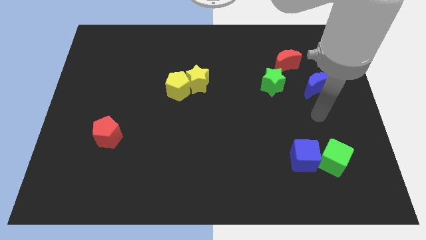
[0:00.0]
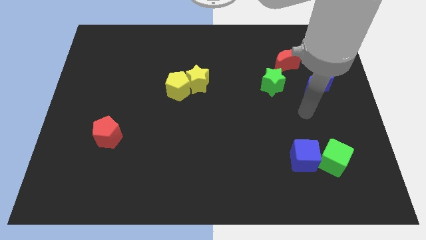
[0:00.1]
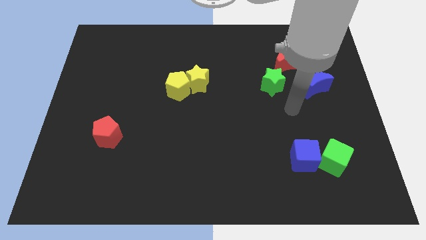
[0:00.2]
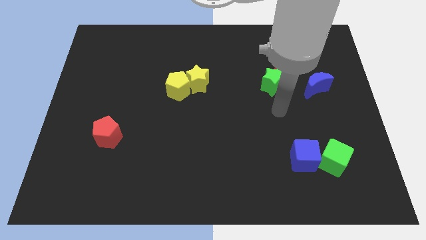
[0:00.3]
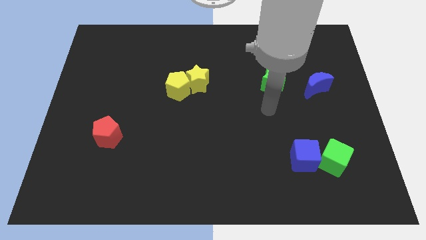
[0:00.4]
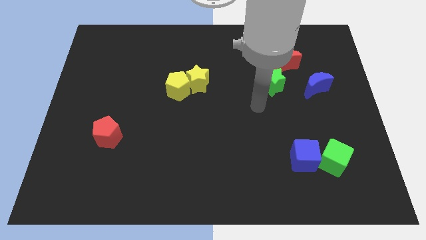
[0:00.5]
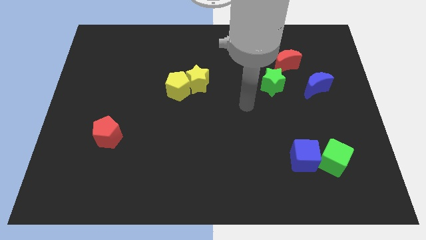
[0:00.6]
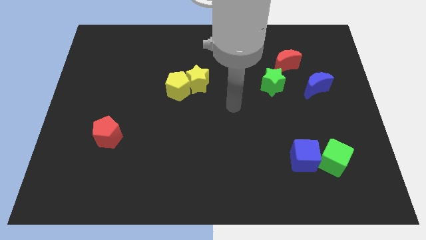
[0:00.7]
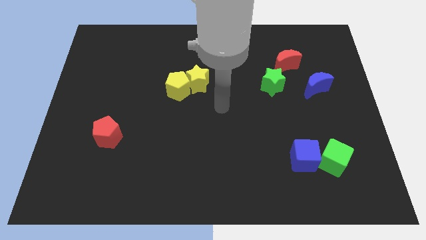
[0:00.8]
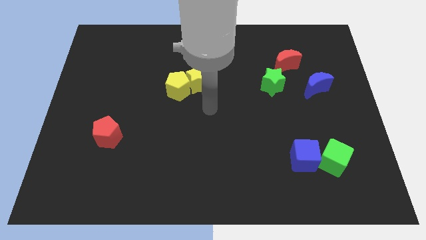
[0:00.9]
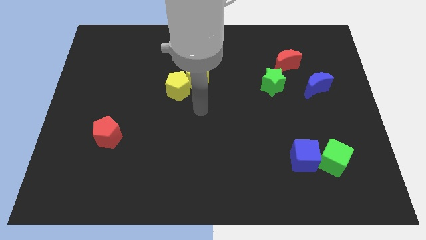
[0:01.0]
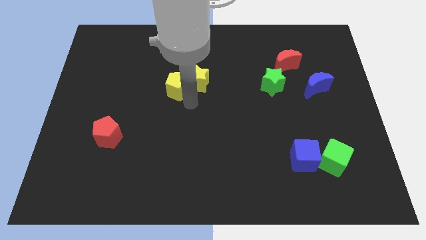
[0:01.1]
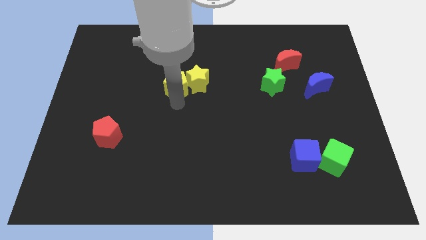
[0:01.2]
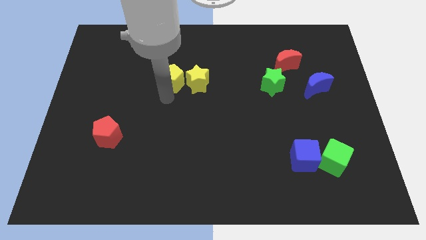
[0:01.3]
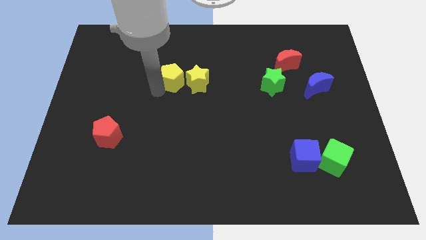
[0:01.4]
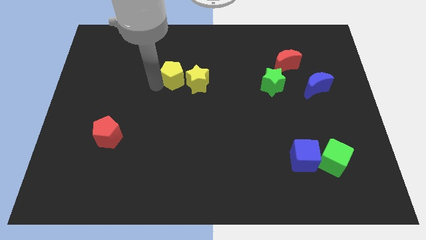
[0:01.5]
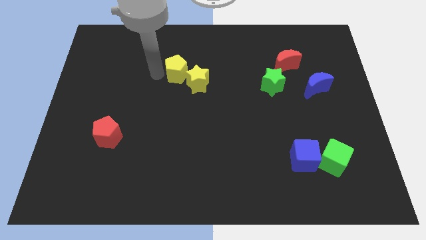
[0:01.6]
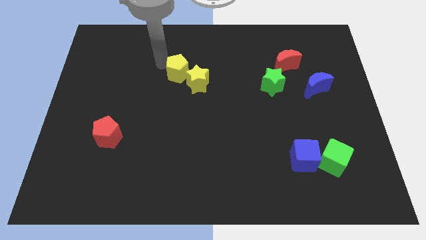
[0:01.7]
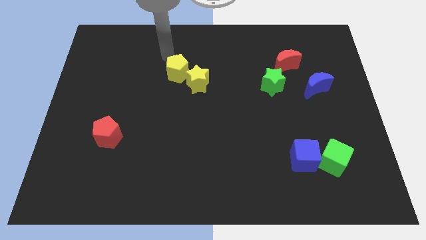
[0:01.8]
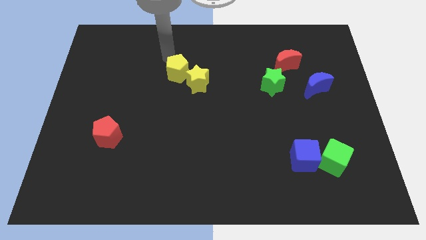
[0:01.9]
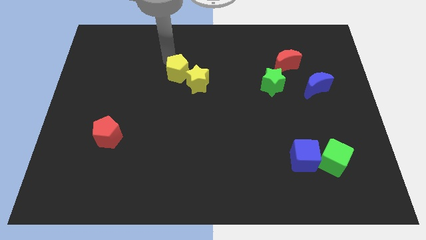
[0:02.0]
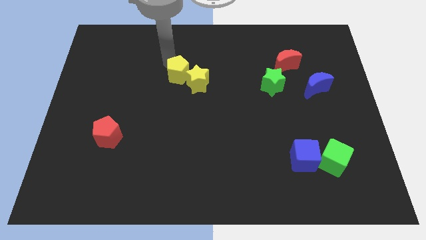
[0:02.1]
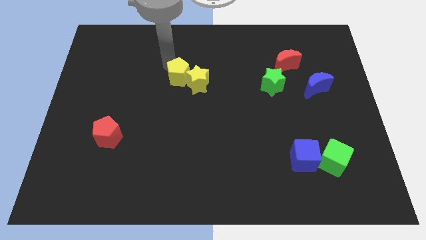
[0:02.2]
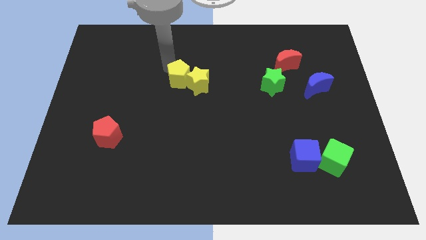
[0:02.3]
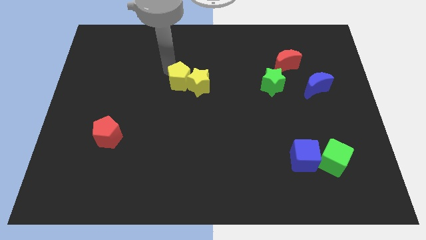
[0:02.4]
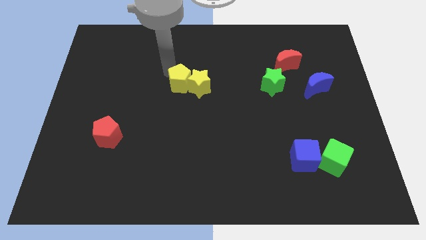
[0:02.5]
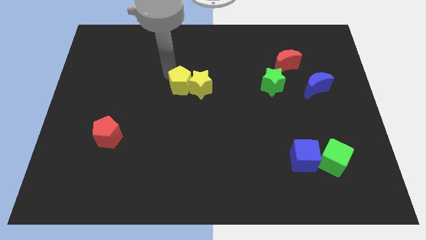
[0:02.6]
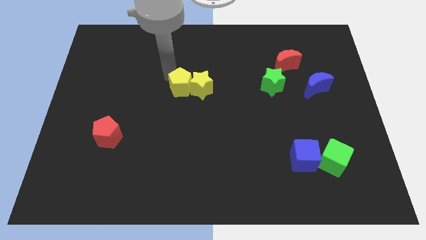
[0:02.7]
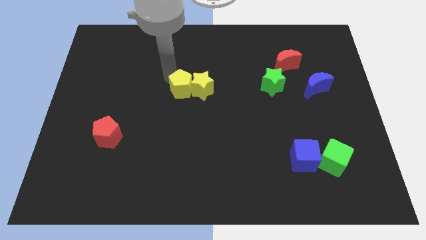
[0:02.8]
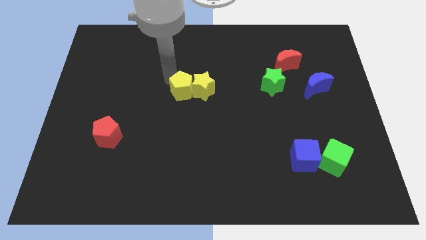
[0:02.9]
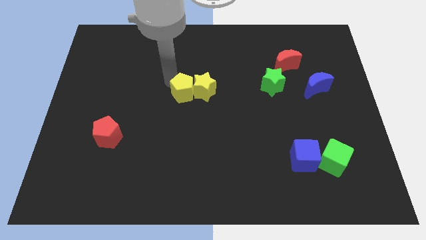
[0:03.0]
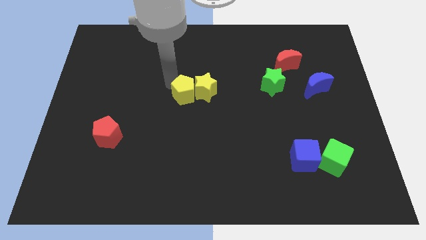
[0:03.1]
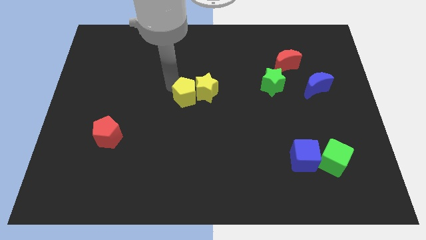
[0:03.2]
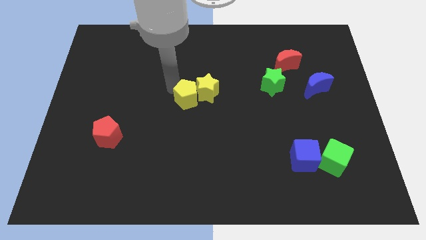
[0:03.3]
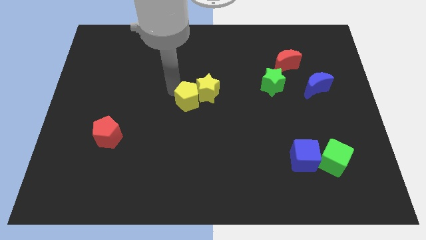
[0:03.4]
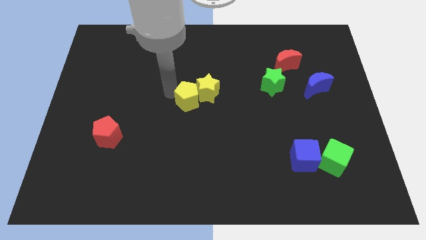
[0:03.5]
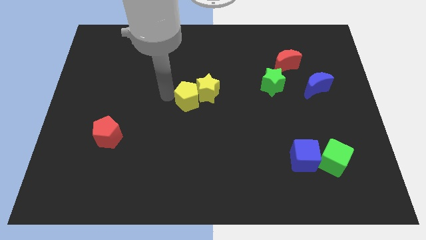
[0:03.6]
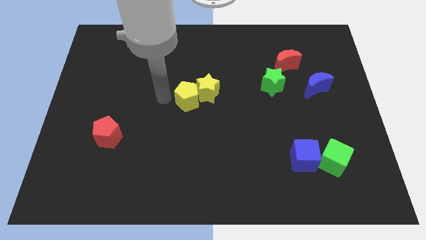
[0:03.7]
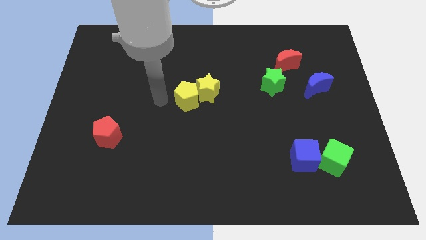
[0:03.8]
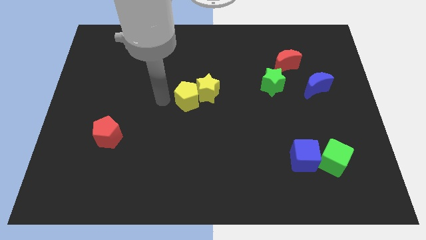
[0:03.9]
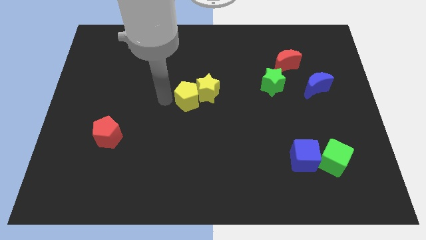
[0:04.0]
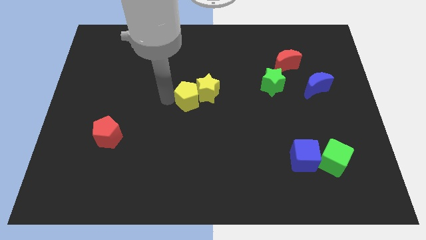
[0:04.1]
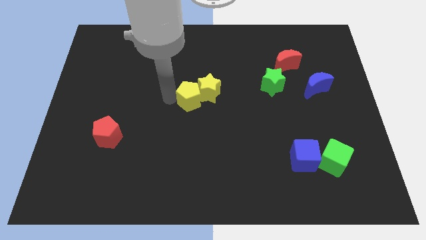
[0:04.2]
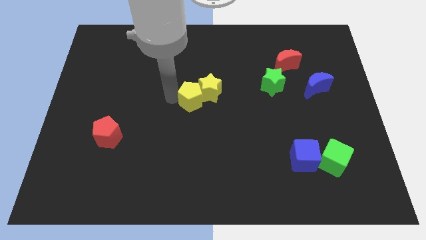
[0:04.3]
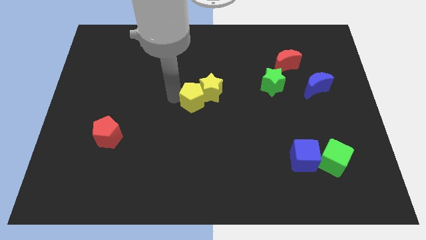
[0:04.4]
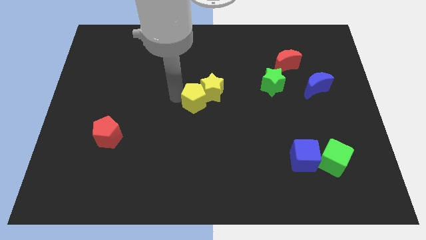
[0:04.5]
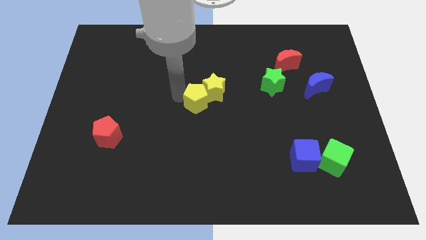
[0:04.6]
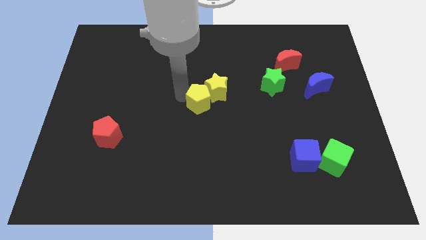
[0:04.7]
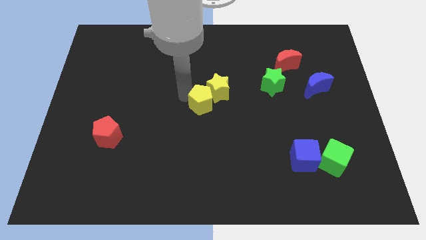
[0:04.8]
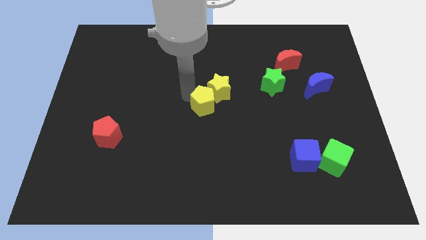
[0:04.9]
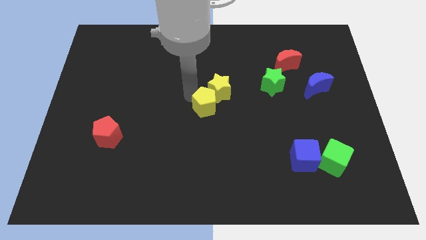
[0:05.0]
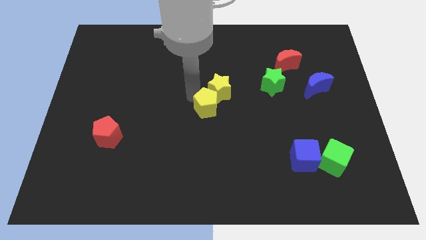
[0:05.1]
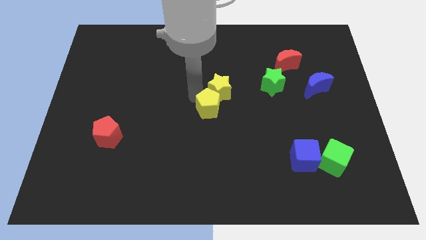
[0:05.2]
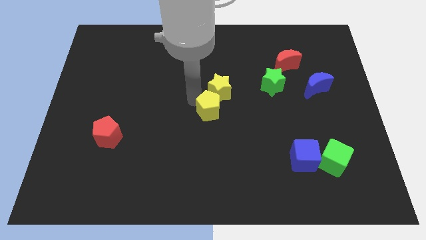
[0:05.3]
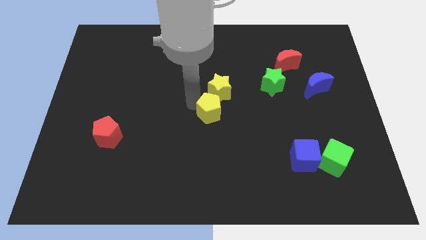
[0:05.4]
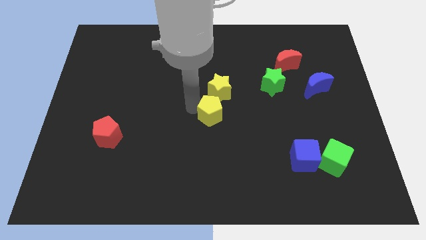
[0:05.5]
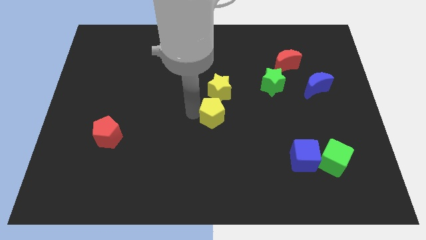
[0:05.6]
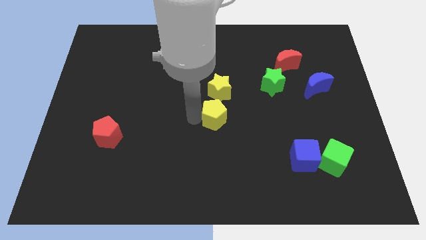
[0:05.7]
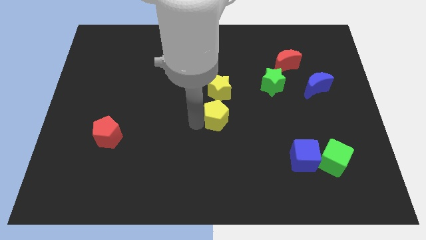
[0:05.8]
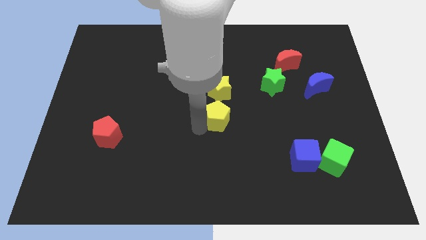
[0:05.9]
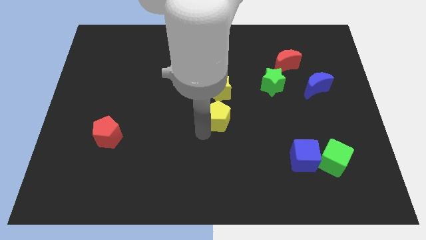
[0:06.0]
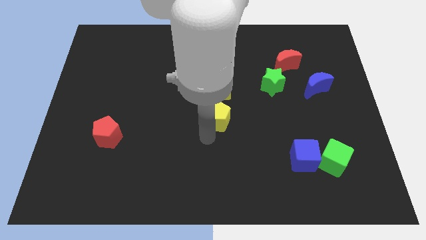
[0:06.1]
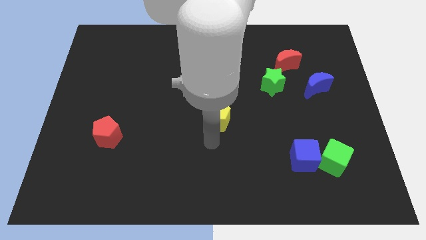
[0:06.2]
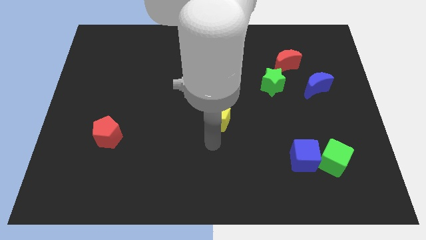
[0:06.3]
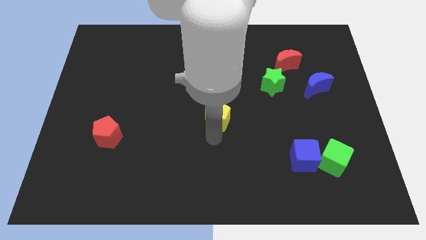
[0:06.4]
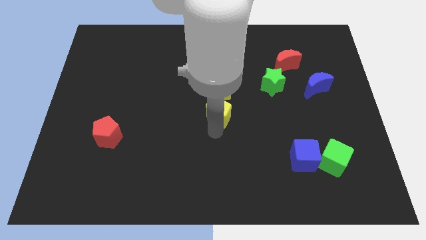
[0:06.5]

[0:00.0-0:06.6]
push the yellow pentagon a bit to the right

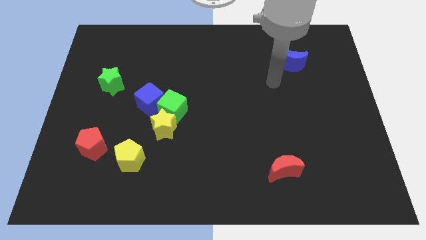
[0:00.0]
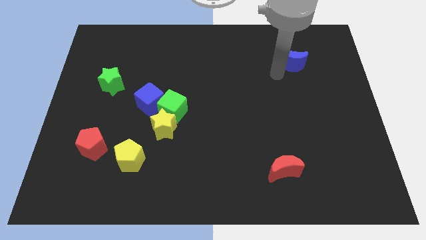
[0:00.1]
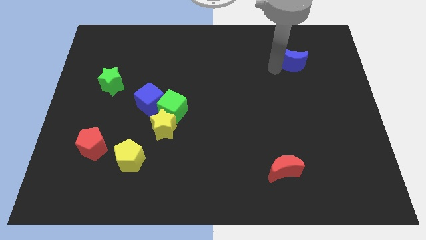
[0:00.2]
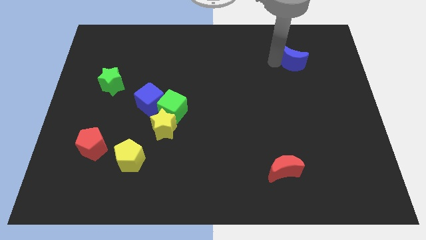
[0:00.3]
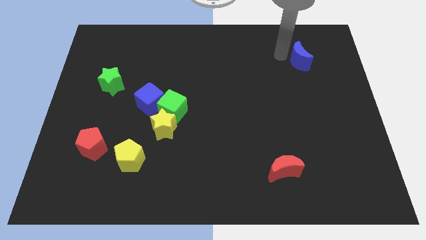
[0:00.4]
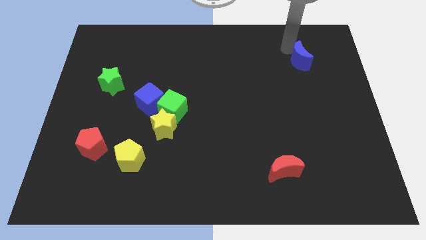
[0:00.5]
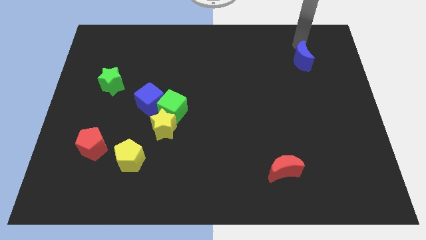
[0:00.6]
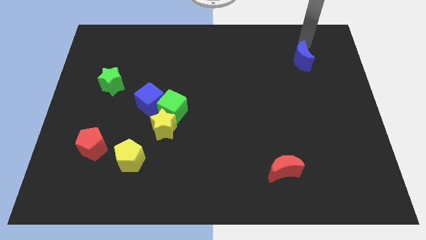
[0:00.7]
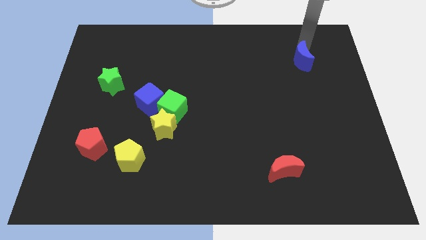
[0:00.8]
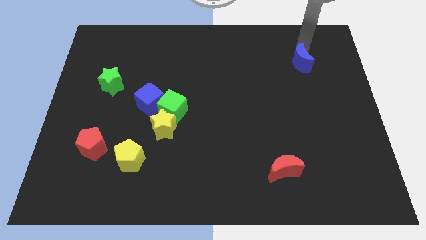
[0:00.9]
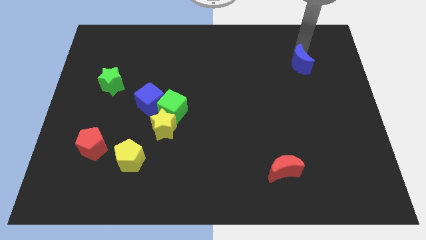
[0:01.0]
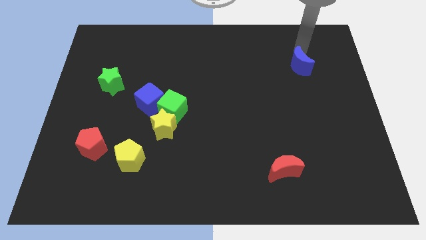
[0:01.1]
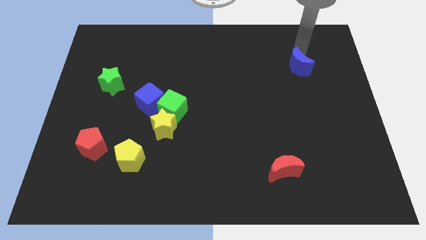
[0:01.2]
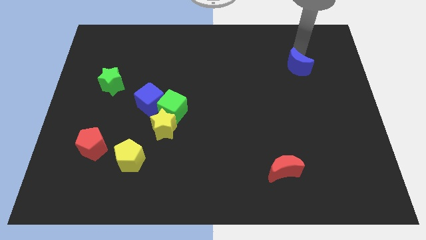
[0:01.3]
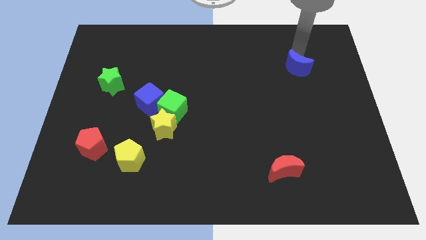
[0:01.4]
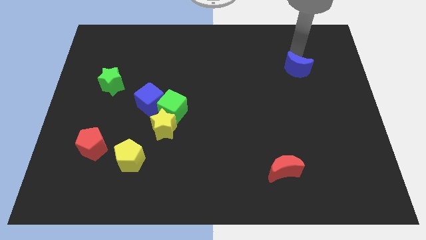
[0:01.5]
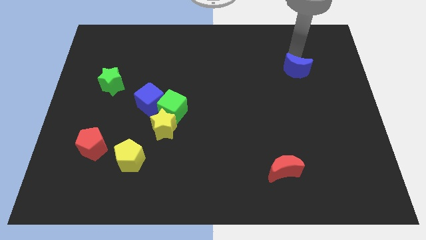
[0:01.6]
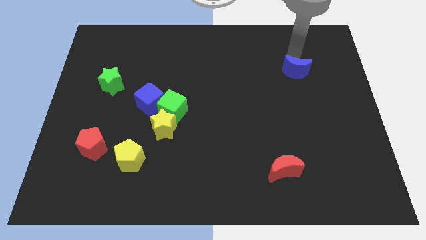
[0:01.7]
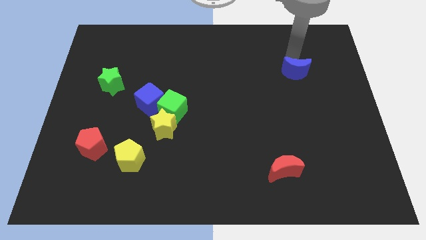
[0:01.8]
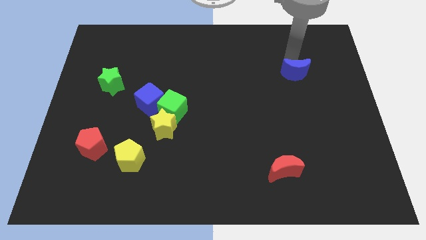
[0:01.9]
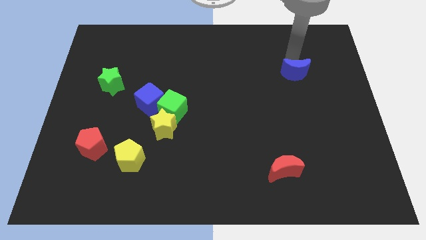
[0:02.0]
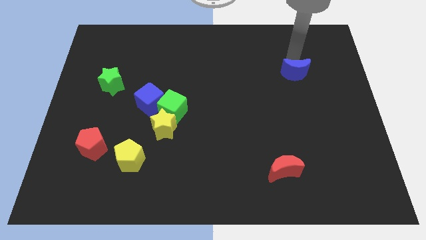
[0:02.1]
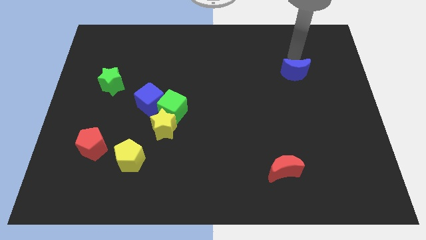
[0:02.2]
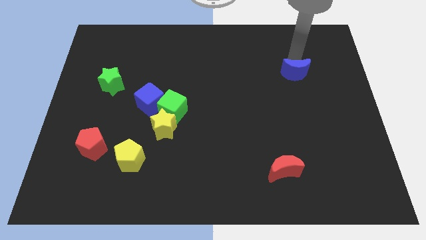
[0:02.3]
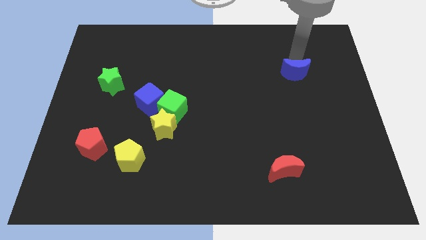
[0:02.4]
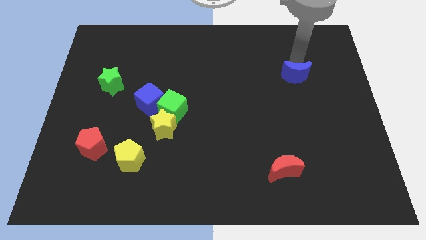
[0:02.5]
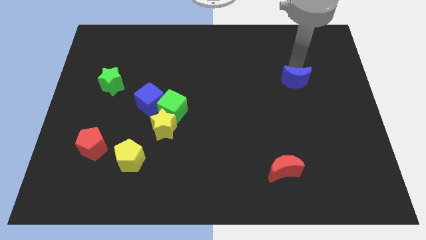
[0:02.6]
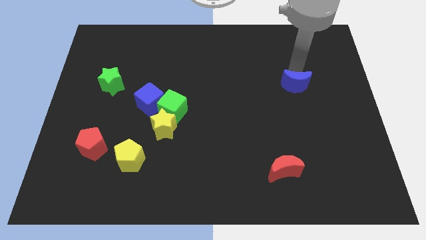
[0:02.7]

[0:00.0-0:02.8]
move the blue moon down a little bit
